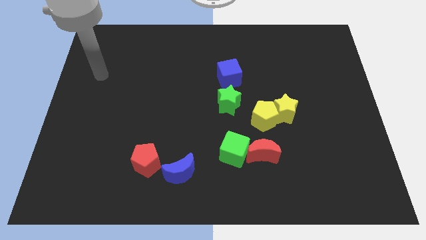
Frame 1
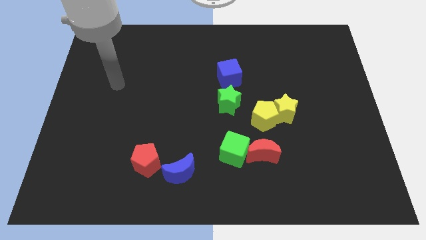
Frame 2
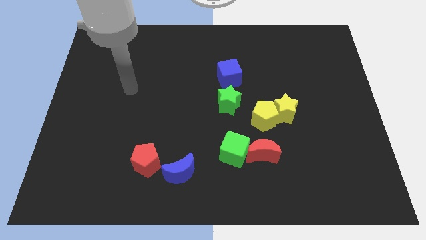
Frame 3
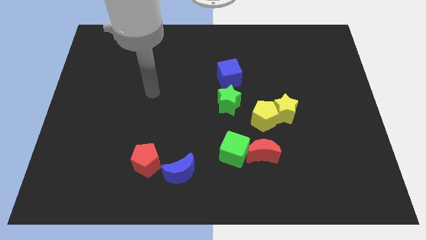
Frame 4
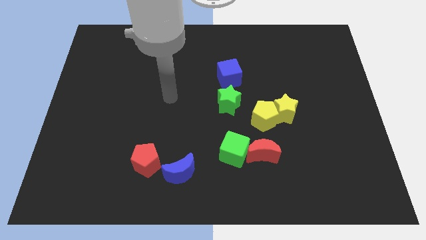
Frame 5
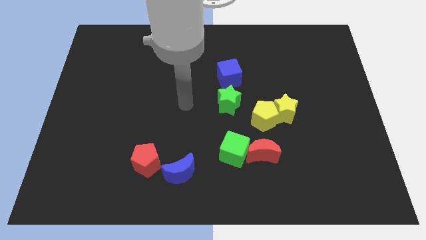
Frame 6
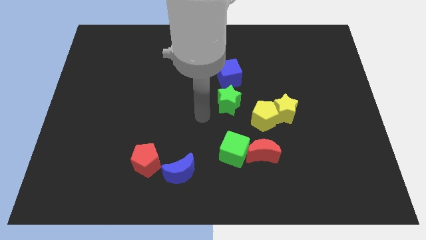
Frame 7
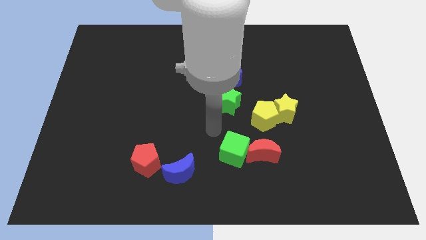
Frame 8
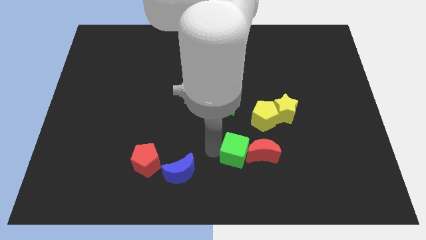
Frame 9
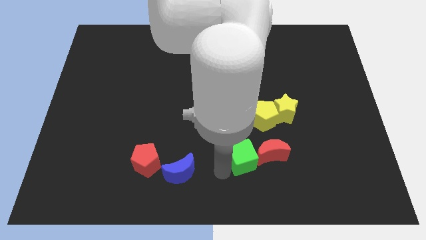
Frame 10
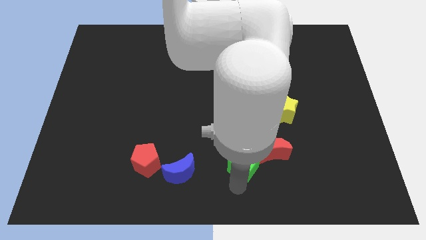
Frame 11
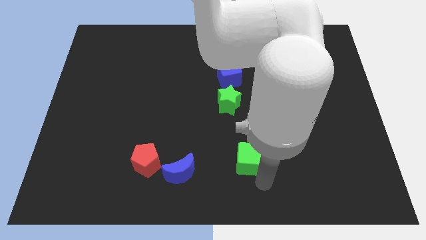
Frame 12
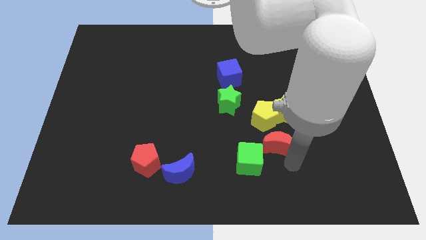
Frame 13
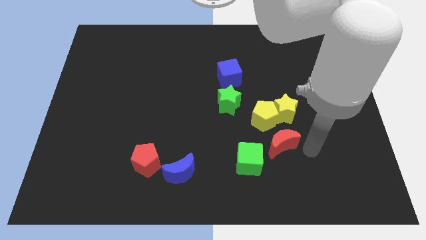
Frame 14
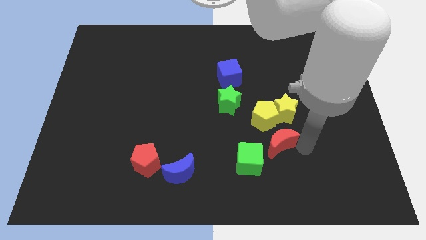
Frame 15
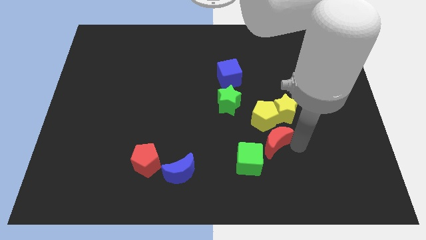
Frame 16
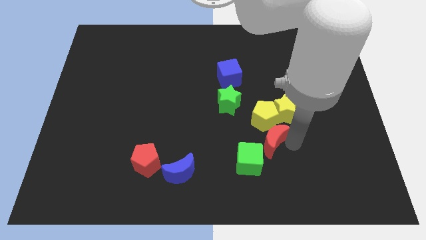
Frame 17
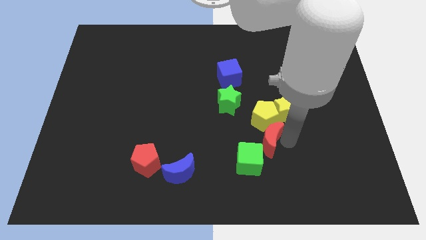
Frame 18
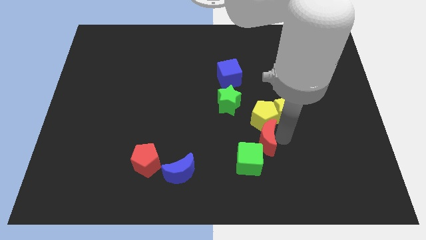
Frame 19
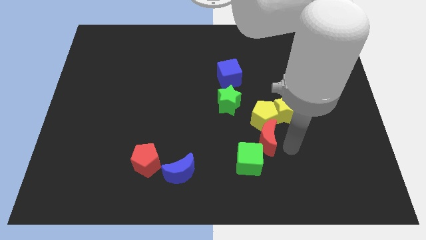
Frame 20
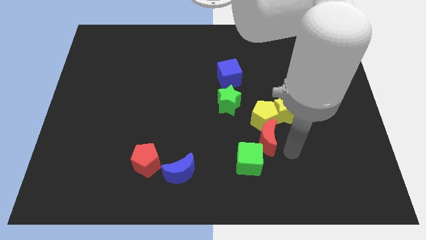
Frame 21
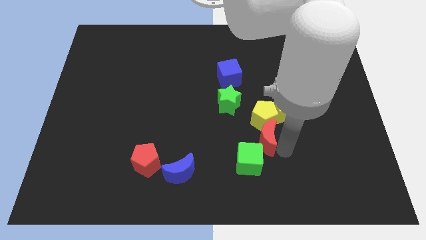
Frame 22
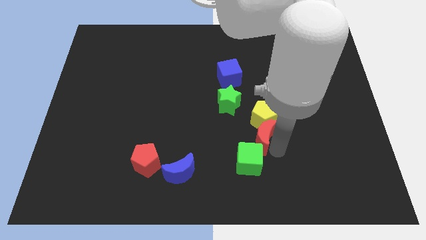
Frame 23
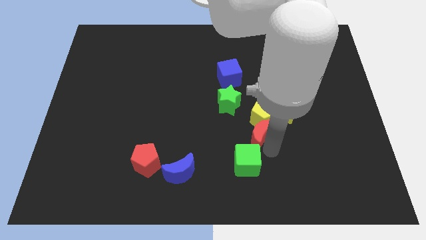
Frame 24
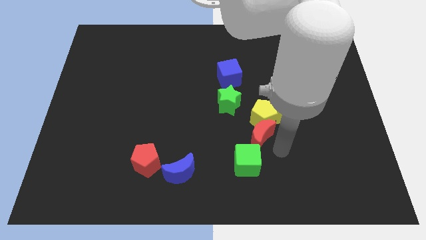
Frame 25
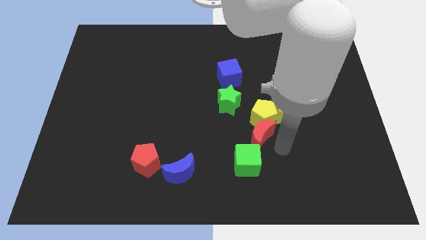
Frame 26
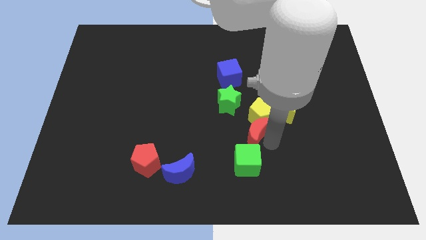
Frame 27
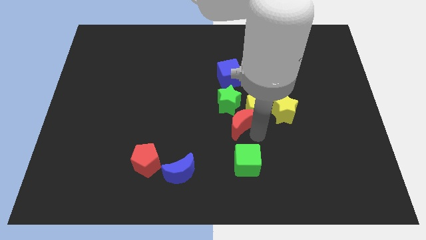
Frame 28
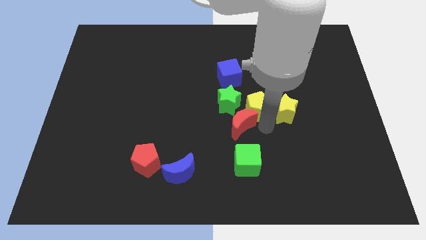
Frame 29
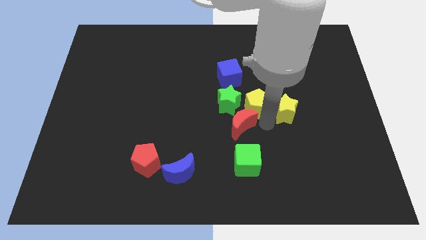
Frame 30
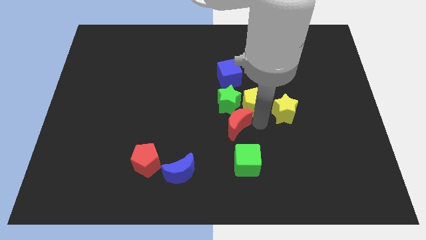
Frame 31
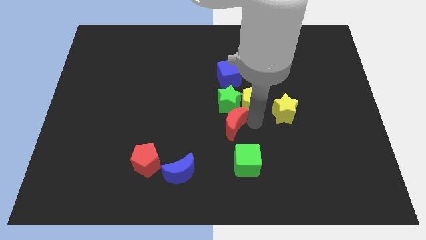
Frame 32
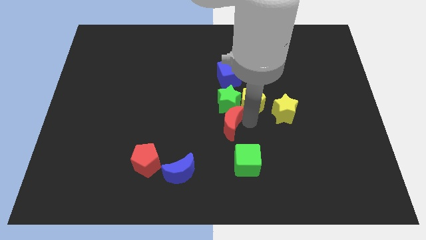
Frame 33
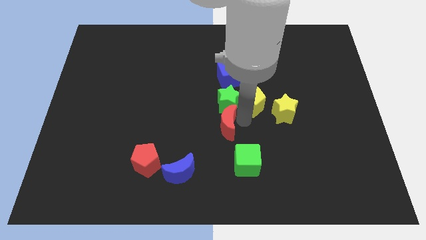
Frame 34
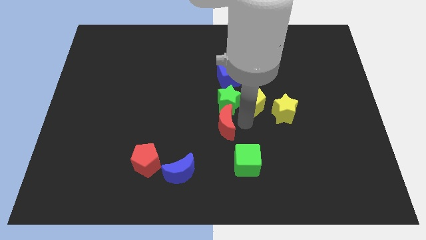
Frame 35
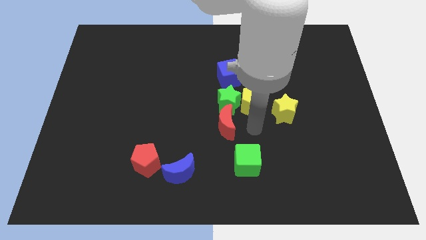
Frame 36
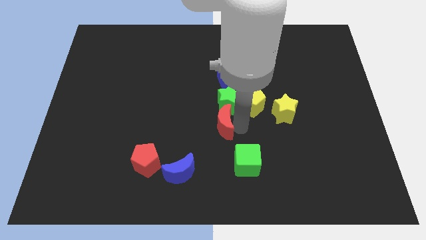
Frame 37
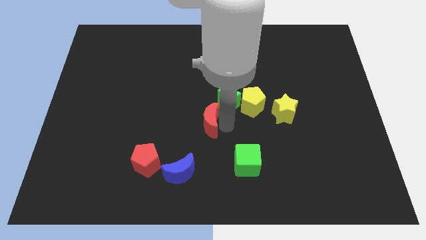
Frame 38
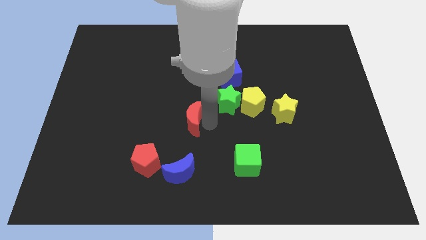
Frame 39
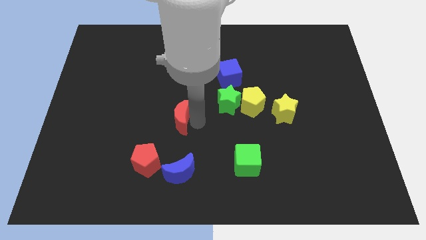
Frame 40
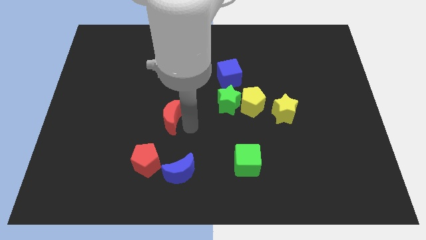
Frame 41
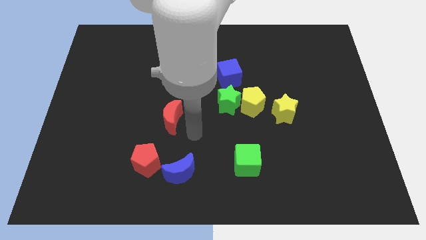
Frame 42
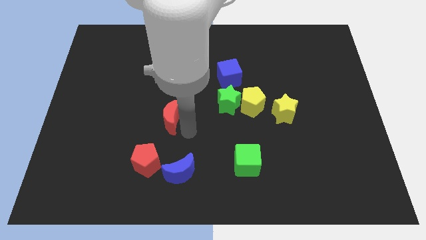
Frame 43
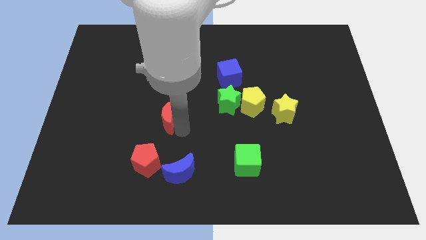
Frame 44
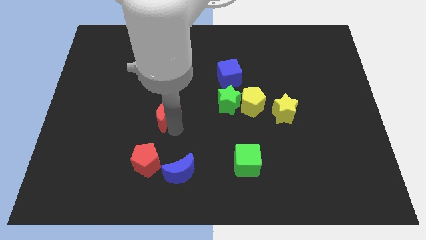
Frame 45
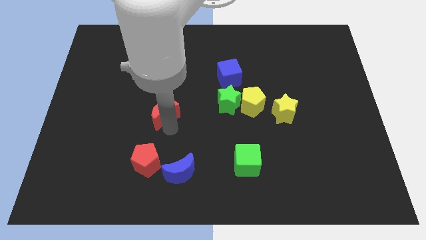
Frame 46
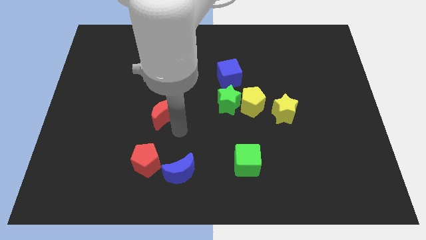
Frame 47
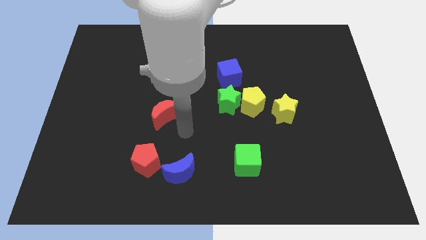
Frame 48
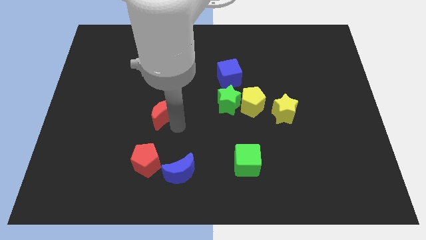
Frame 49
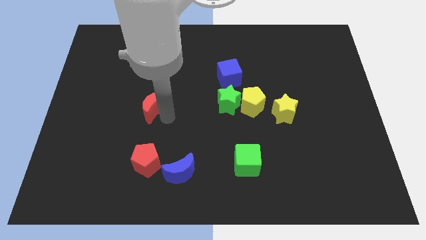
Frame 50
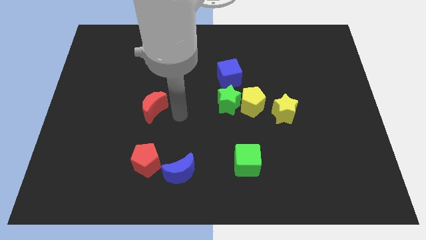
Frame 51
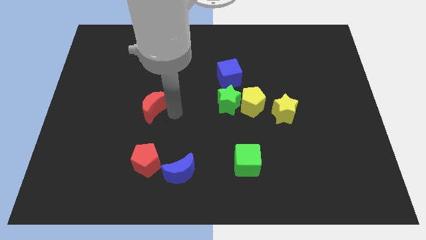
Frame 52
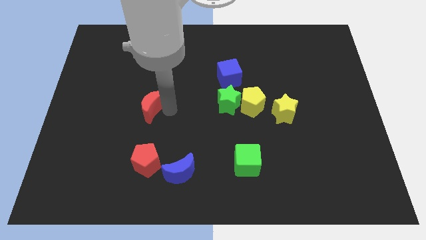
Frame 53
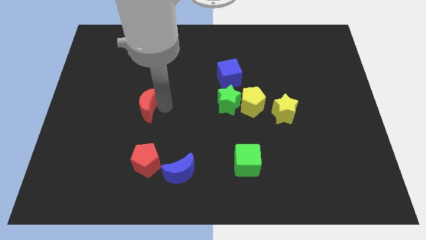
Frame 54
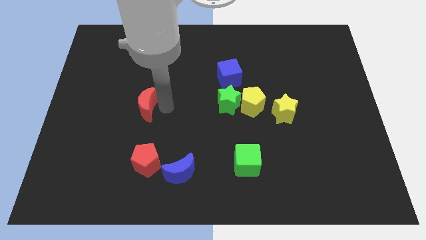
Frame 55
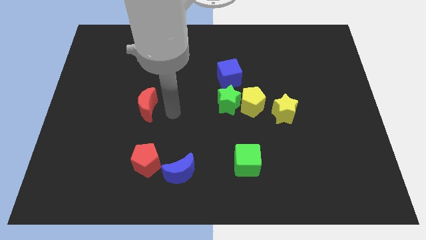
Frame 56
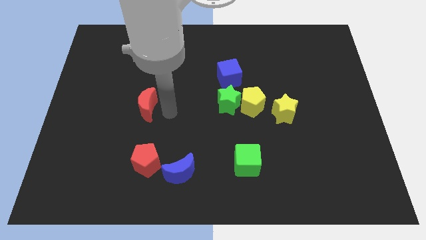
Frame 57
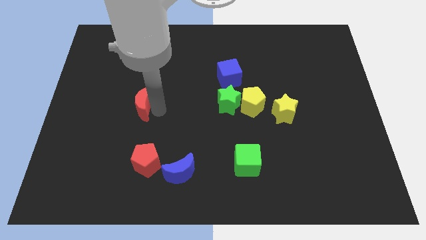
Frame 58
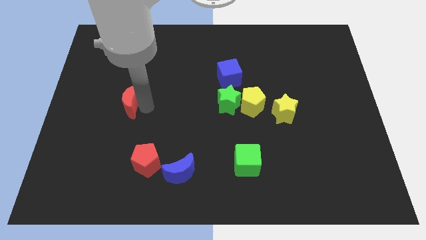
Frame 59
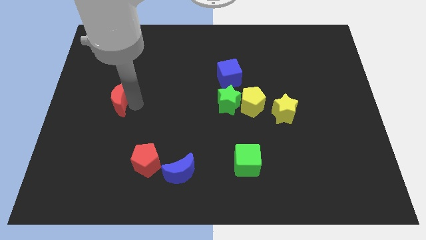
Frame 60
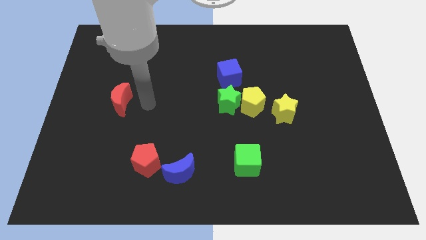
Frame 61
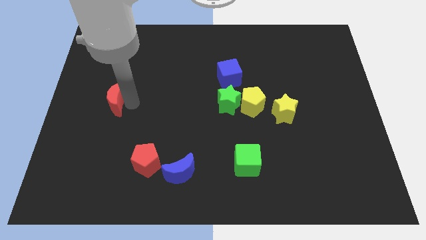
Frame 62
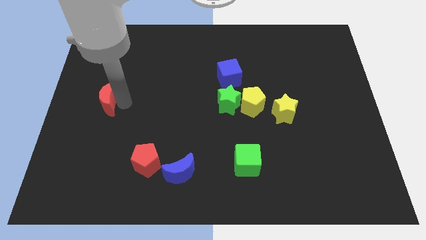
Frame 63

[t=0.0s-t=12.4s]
push the red moon to the left side

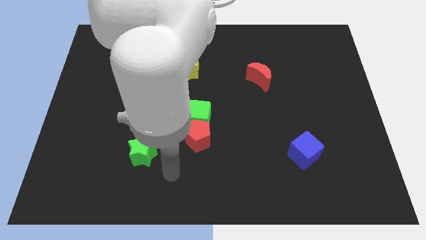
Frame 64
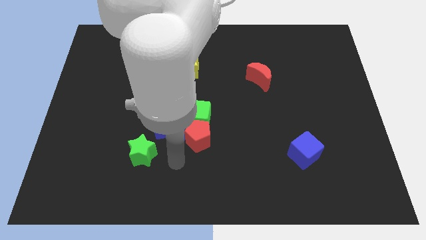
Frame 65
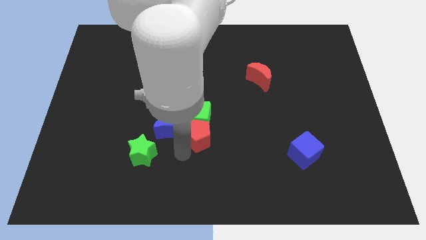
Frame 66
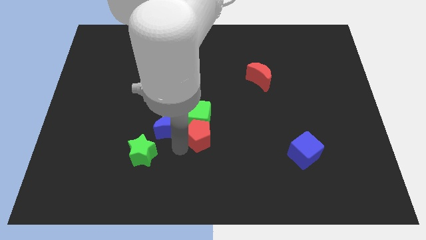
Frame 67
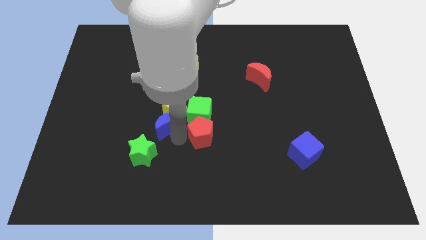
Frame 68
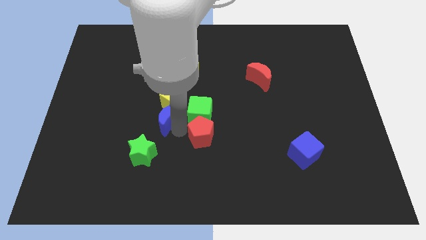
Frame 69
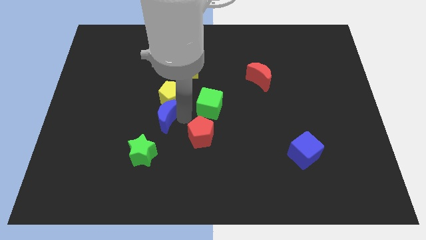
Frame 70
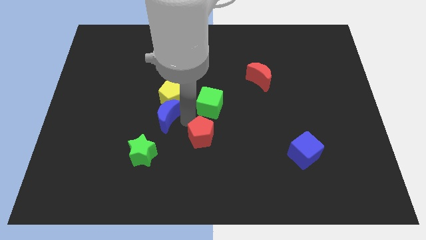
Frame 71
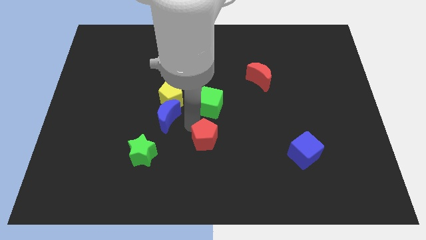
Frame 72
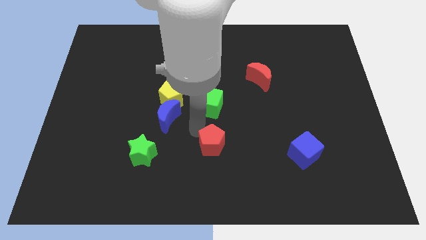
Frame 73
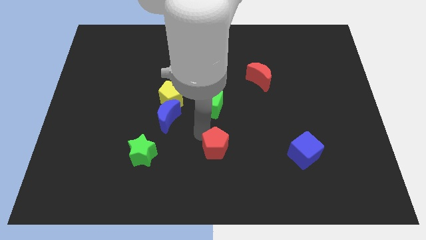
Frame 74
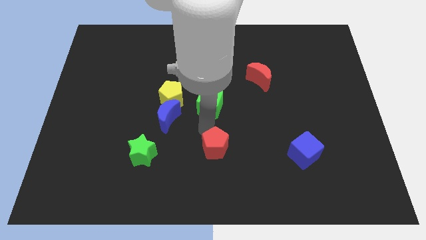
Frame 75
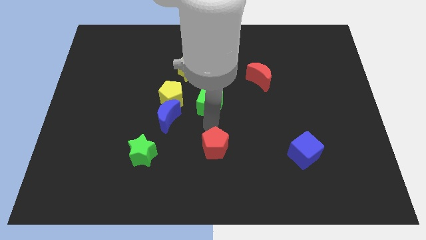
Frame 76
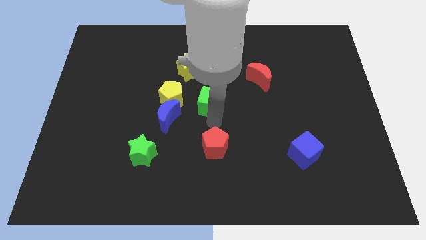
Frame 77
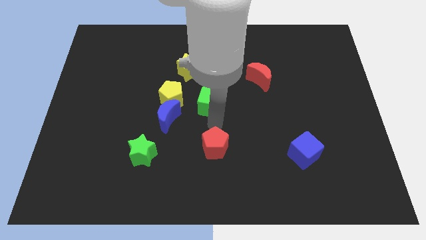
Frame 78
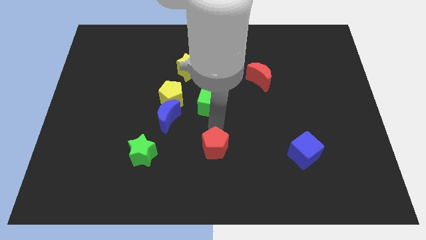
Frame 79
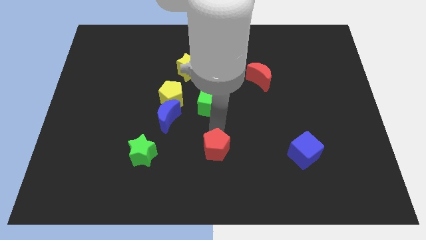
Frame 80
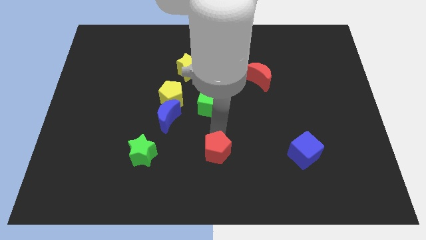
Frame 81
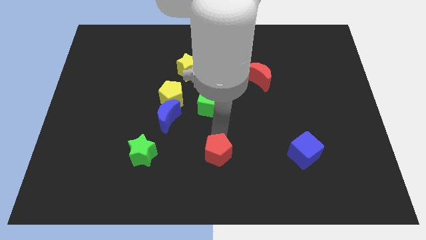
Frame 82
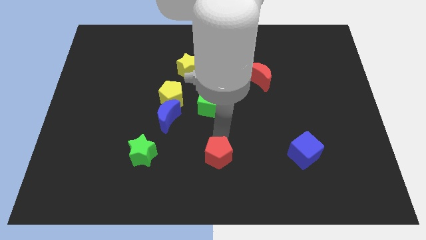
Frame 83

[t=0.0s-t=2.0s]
move the red pentagon to the bottom
